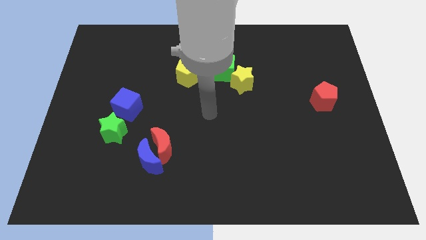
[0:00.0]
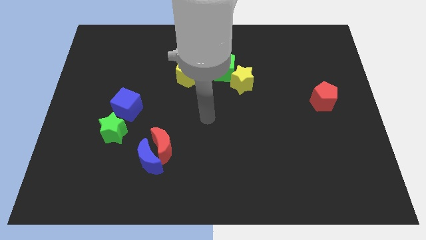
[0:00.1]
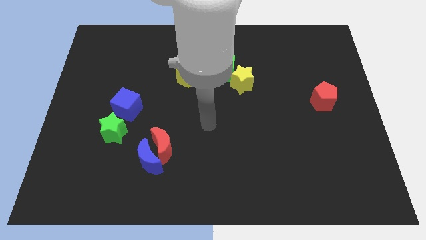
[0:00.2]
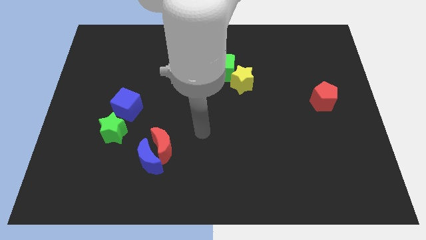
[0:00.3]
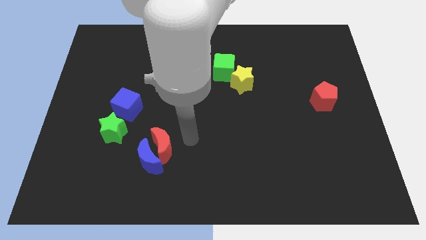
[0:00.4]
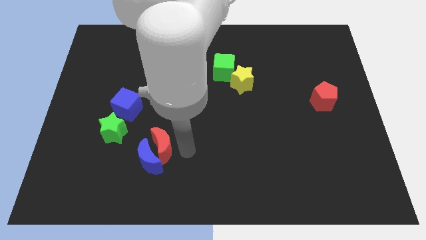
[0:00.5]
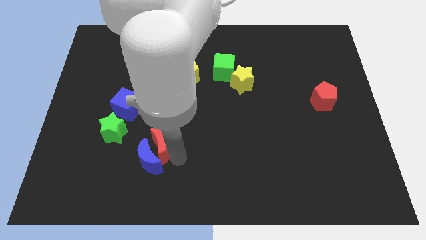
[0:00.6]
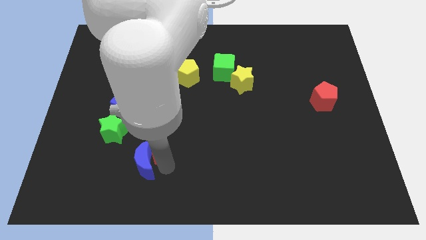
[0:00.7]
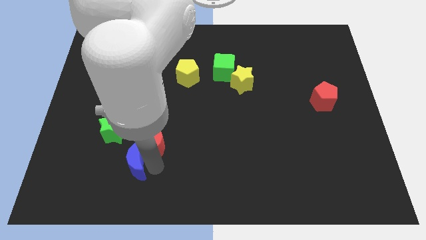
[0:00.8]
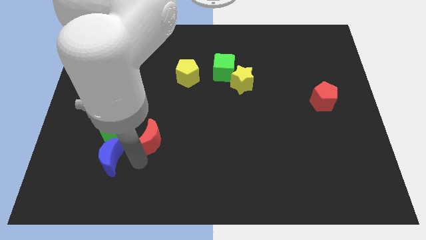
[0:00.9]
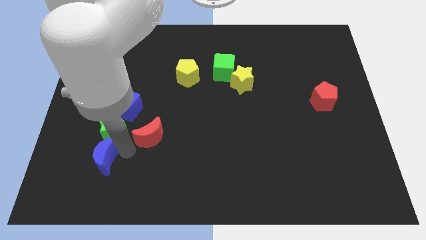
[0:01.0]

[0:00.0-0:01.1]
pull the red moon apart from the blue moon

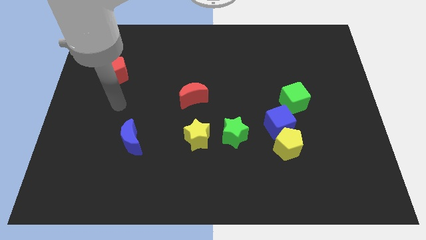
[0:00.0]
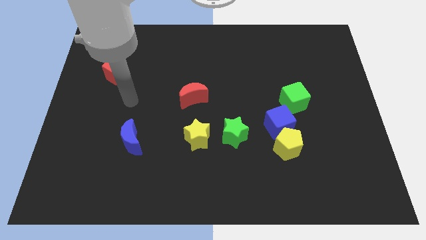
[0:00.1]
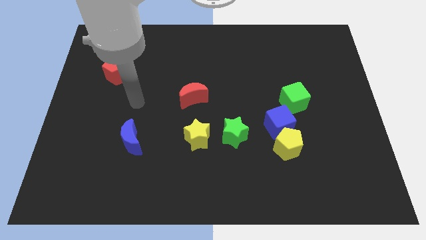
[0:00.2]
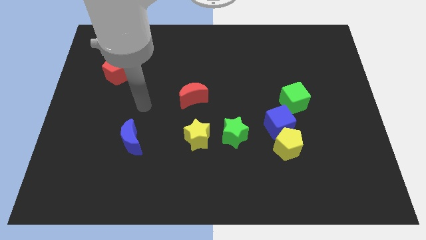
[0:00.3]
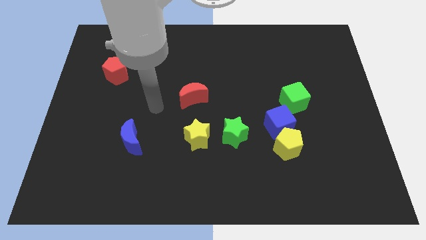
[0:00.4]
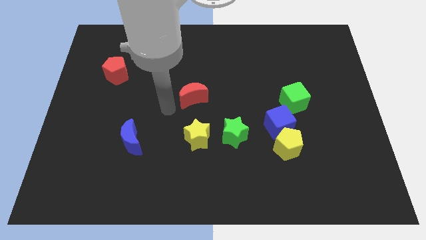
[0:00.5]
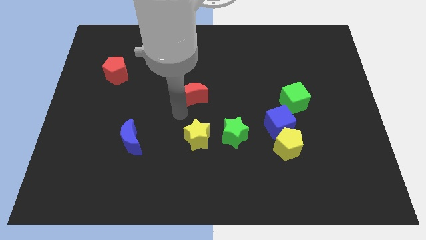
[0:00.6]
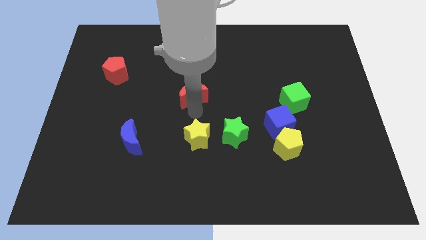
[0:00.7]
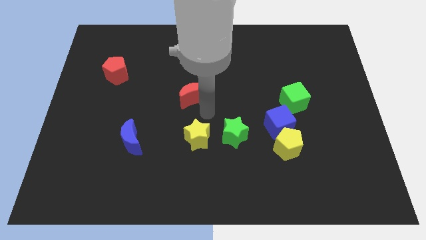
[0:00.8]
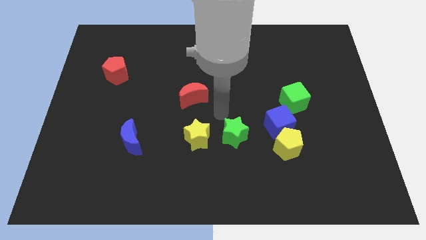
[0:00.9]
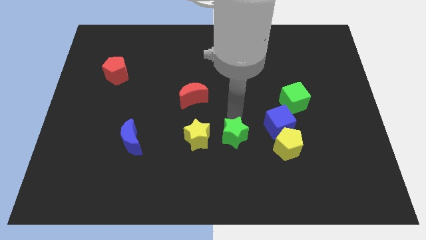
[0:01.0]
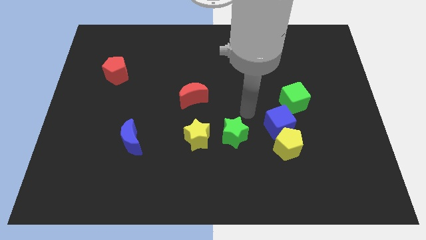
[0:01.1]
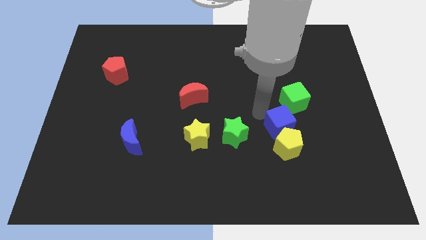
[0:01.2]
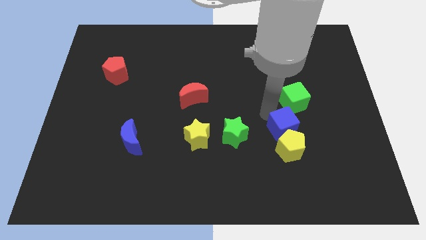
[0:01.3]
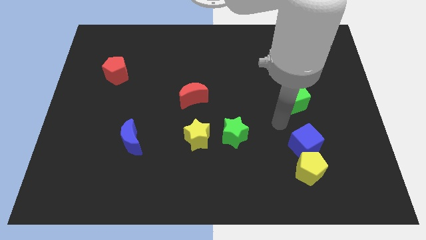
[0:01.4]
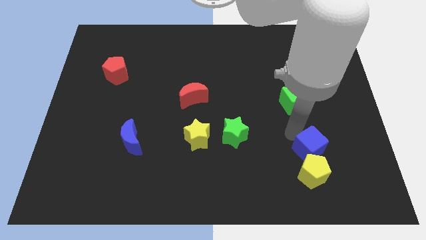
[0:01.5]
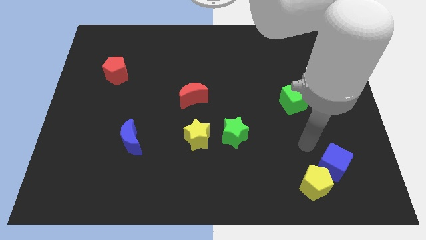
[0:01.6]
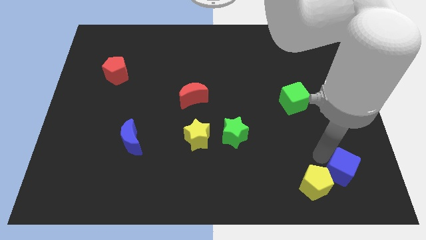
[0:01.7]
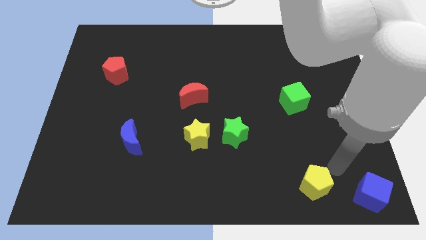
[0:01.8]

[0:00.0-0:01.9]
separate the yellow pentagon from the blue cube

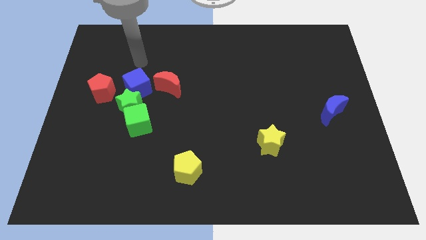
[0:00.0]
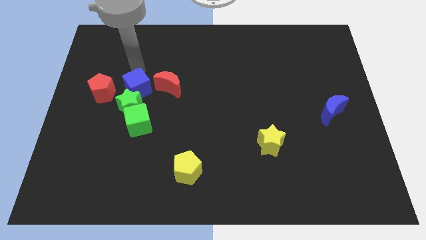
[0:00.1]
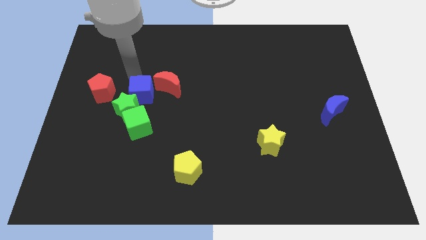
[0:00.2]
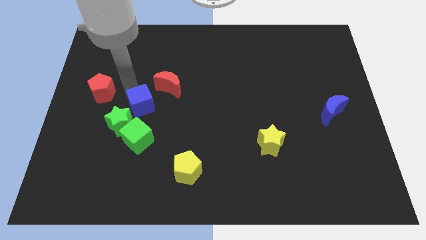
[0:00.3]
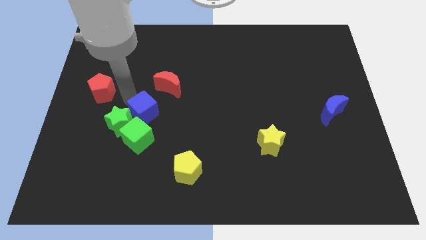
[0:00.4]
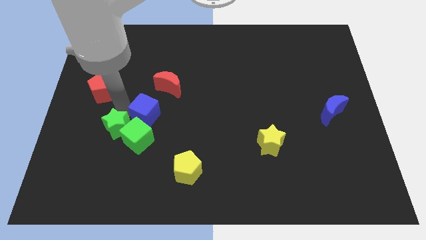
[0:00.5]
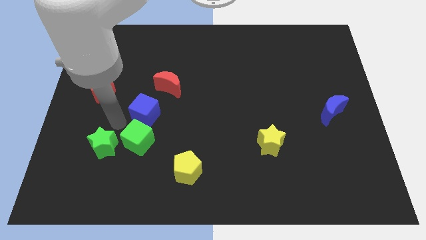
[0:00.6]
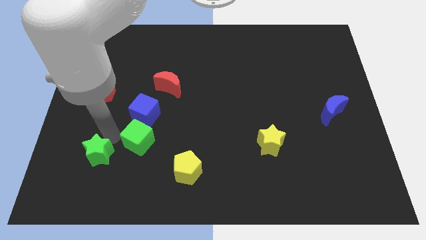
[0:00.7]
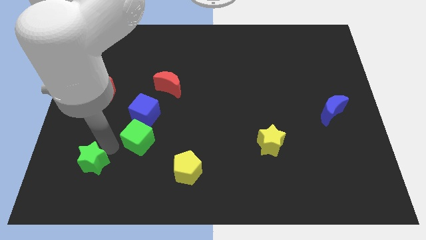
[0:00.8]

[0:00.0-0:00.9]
move the green cube away from the green star

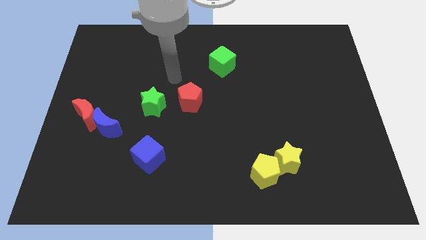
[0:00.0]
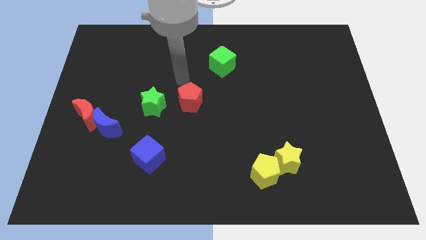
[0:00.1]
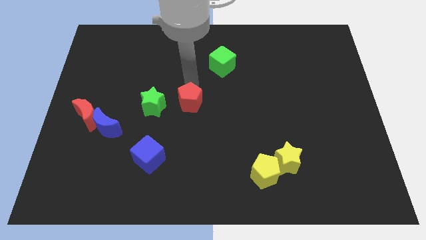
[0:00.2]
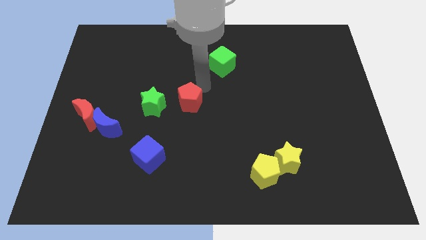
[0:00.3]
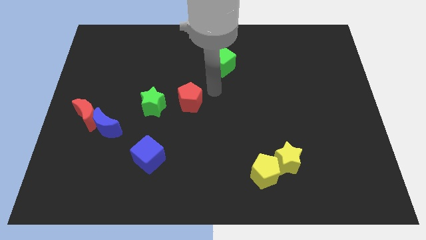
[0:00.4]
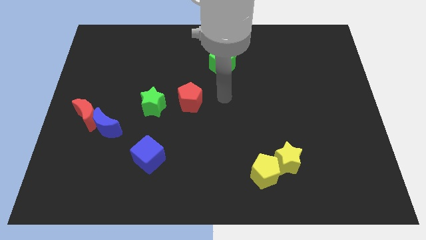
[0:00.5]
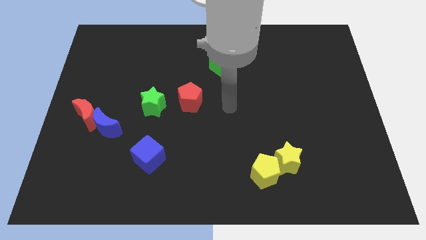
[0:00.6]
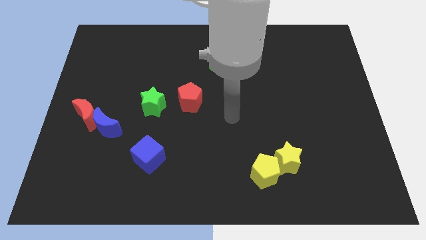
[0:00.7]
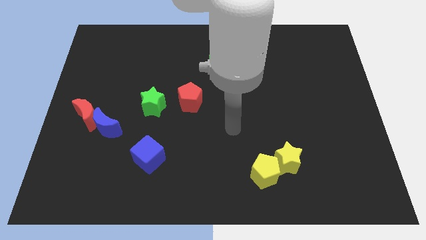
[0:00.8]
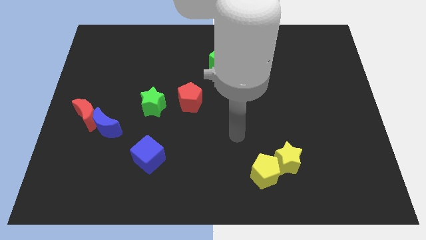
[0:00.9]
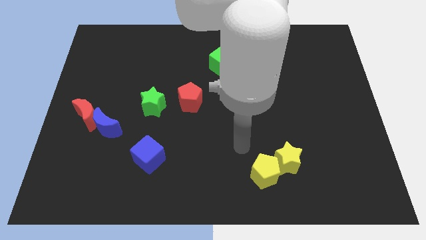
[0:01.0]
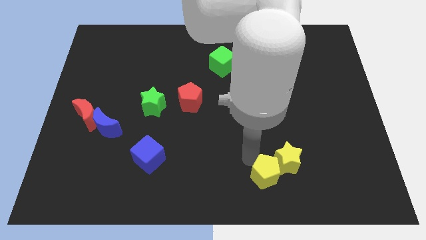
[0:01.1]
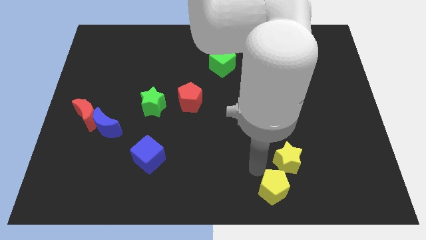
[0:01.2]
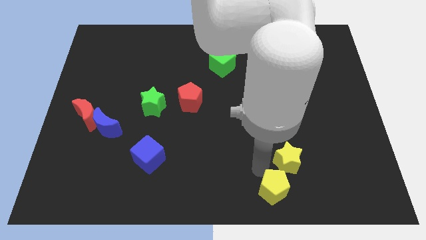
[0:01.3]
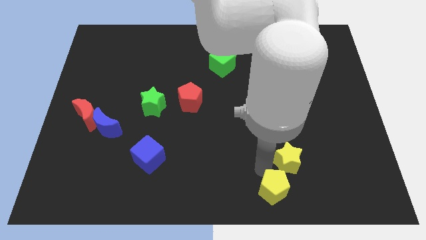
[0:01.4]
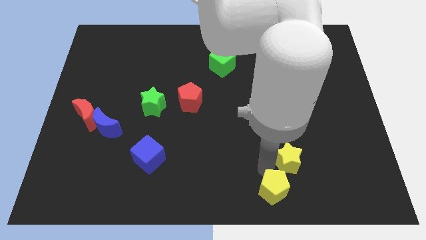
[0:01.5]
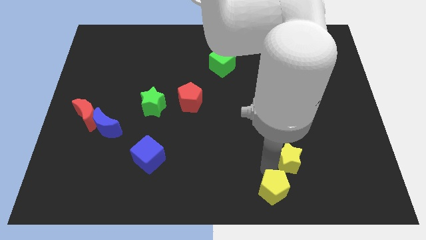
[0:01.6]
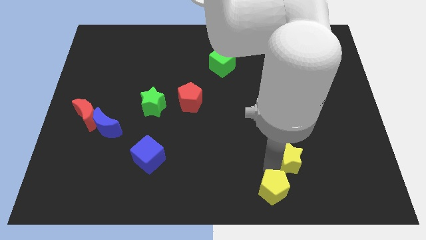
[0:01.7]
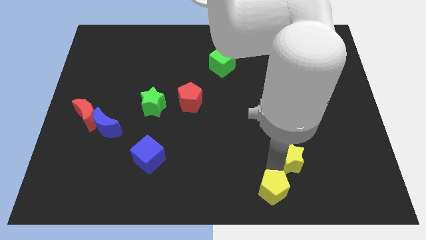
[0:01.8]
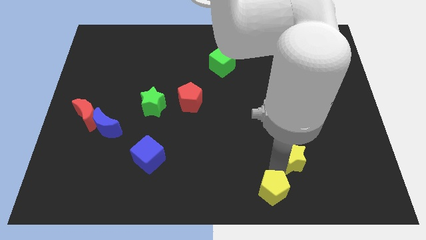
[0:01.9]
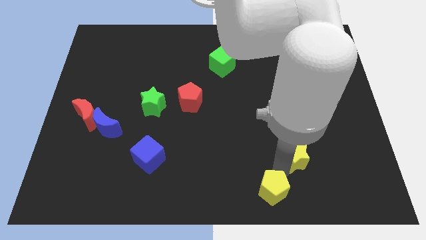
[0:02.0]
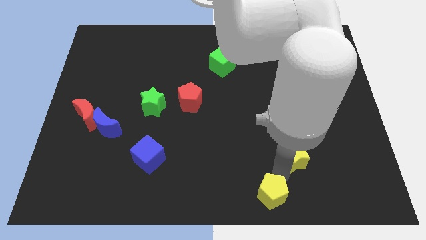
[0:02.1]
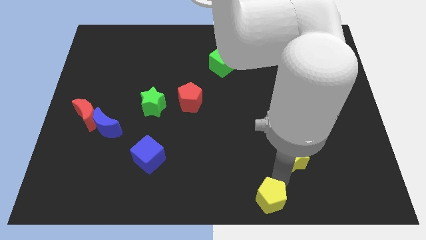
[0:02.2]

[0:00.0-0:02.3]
pull the yellow star apart from the yellow pentagon

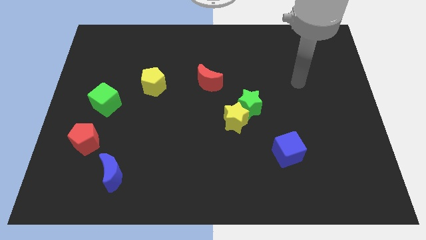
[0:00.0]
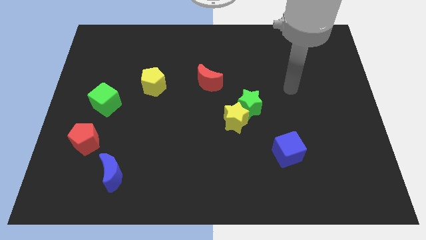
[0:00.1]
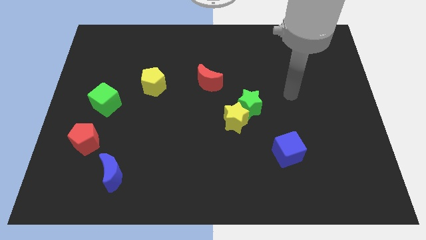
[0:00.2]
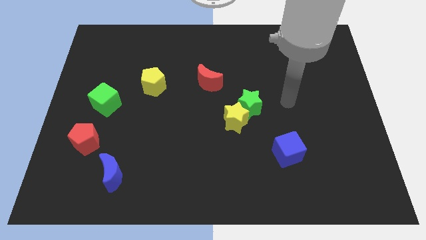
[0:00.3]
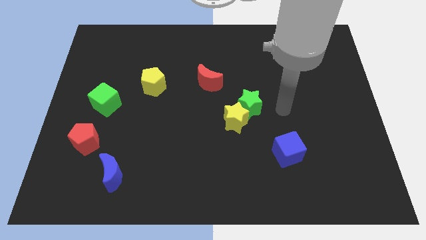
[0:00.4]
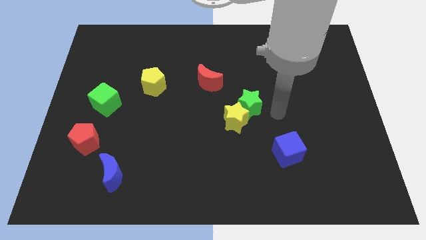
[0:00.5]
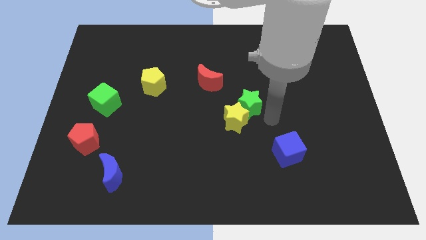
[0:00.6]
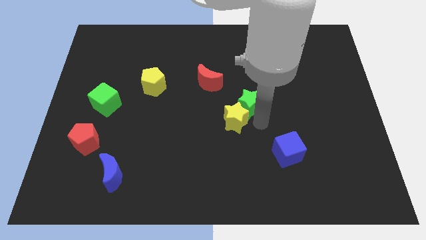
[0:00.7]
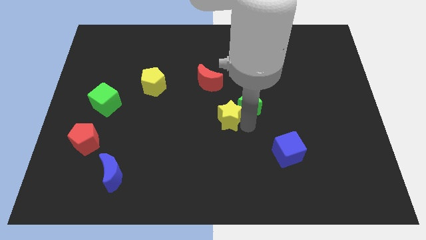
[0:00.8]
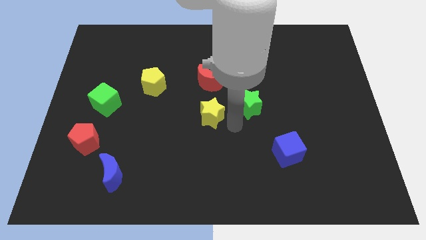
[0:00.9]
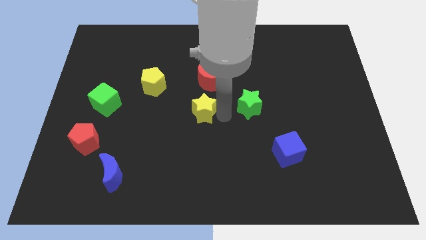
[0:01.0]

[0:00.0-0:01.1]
pull the green star apart from the yellow star

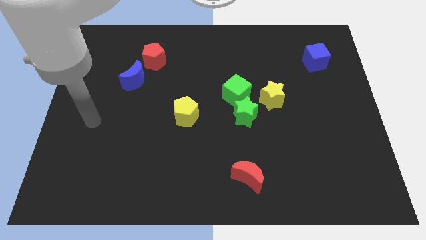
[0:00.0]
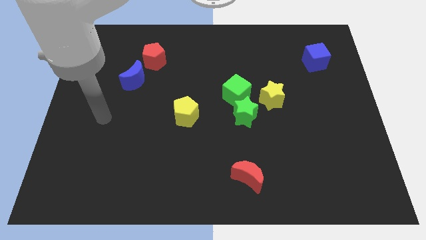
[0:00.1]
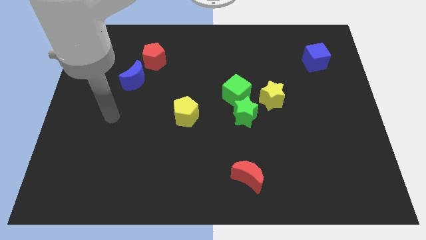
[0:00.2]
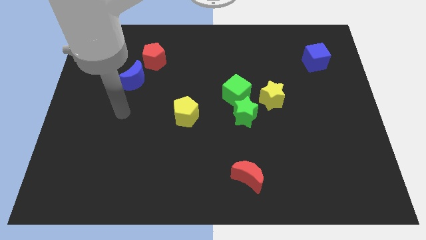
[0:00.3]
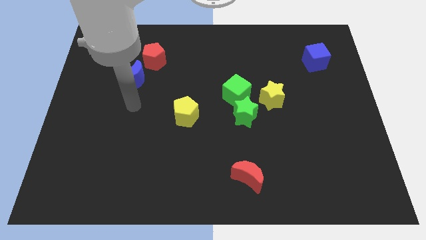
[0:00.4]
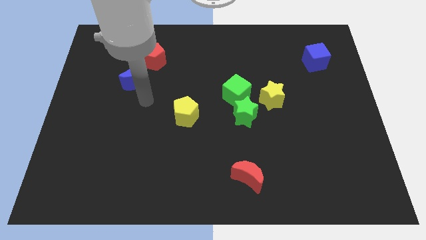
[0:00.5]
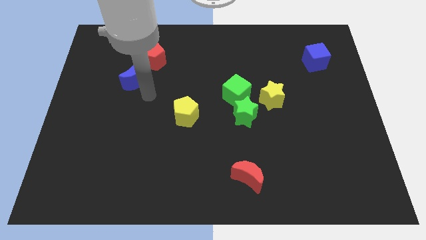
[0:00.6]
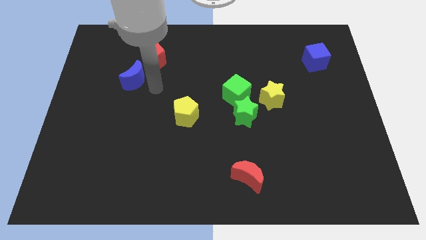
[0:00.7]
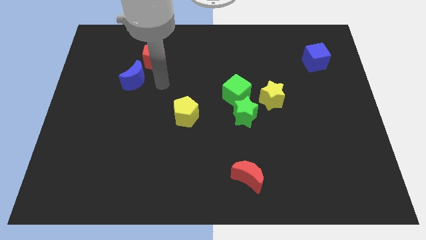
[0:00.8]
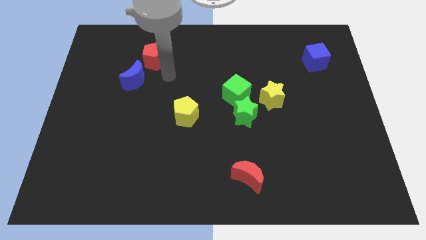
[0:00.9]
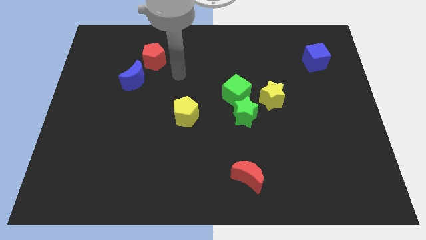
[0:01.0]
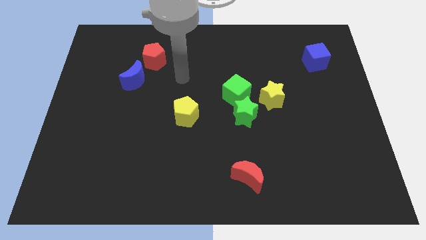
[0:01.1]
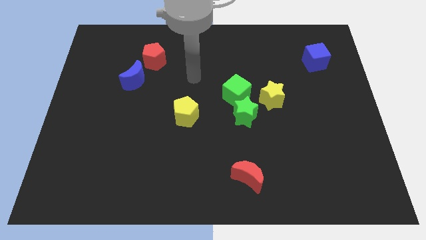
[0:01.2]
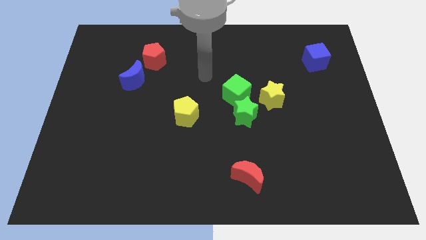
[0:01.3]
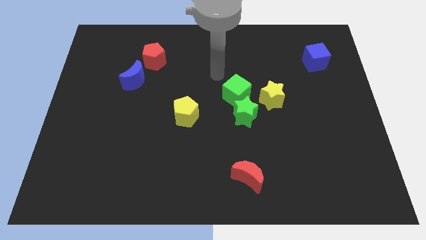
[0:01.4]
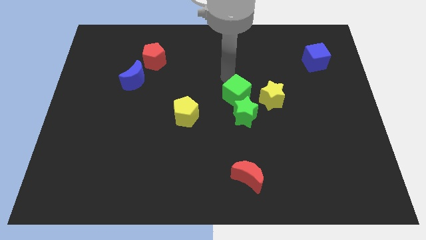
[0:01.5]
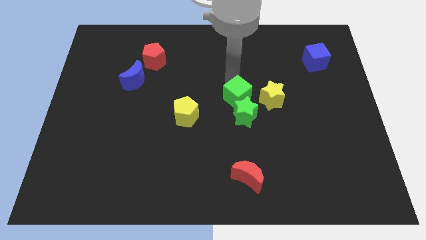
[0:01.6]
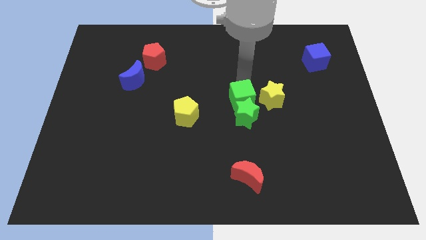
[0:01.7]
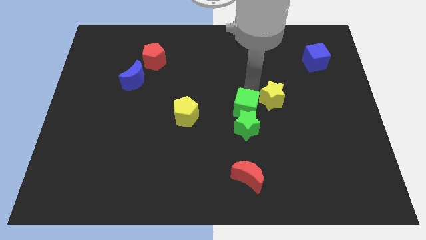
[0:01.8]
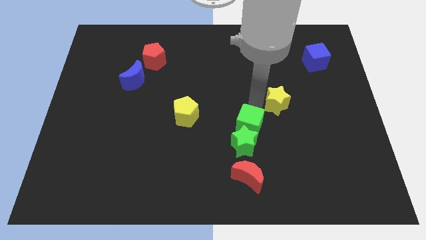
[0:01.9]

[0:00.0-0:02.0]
pull the green star apart from the green cube and yellow star

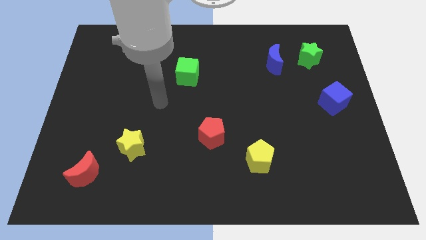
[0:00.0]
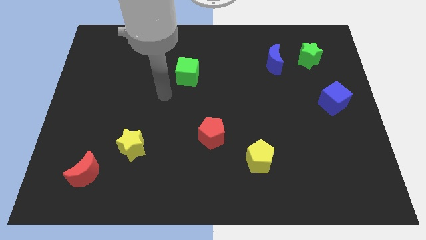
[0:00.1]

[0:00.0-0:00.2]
move the blue moon away from the green star
